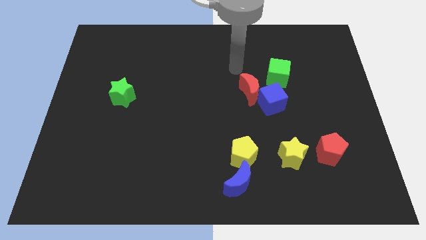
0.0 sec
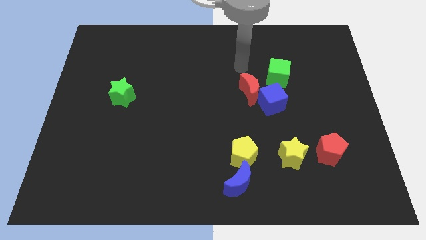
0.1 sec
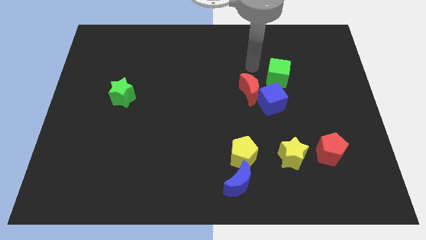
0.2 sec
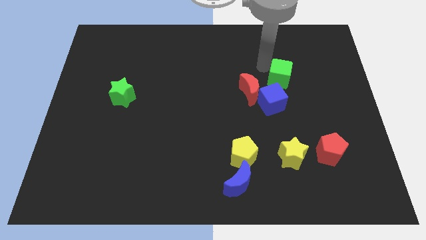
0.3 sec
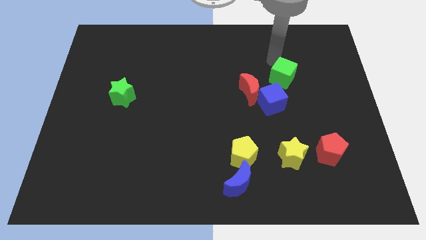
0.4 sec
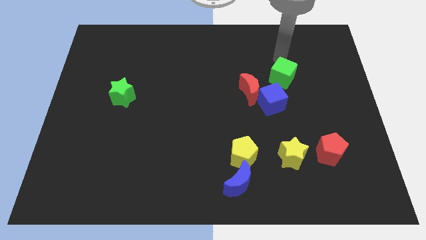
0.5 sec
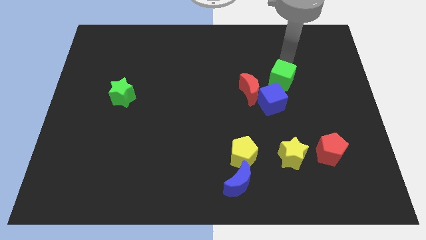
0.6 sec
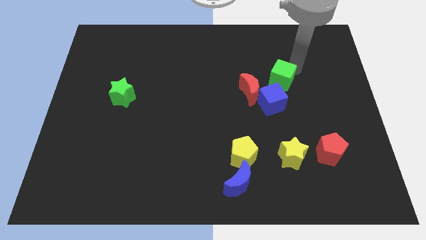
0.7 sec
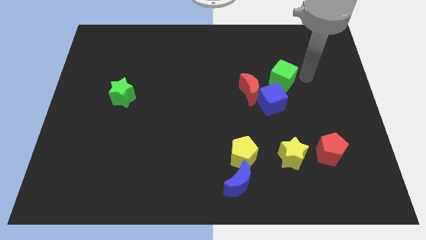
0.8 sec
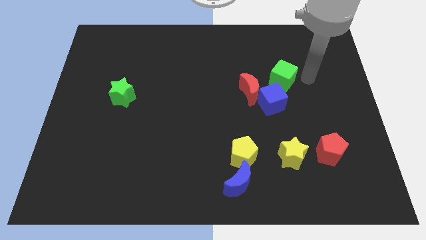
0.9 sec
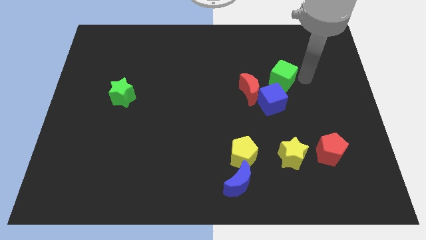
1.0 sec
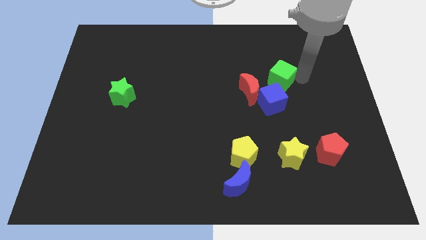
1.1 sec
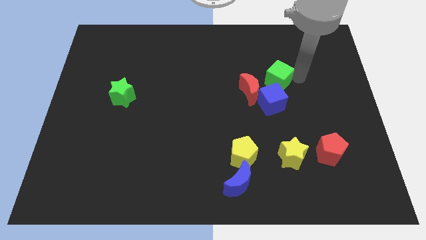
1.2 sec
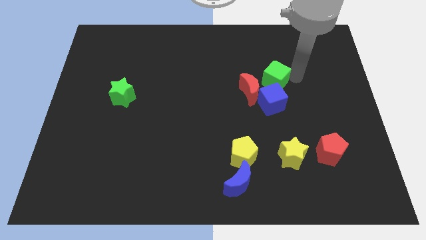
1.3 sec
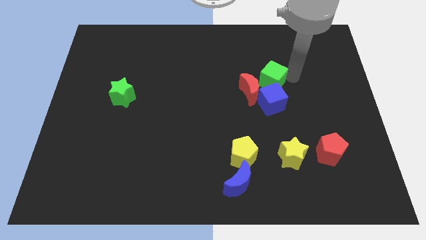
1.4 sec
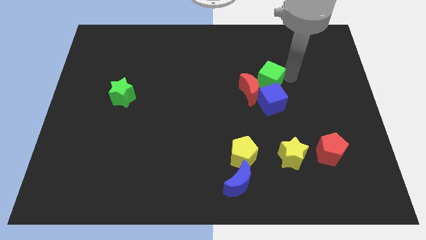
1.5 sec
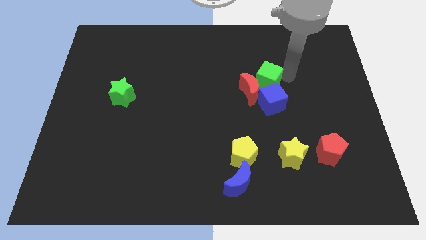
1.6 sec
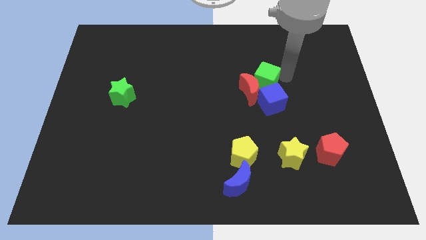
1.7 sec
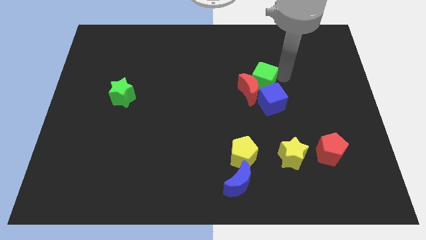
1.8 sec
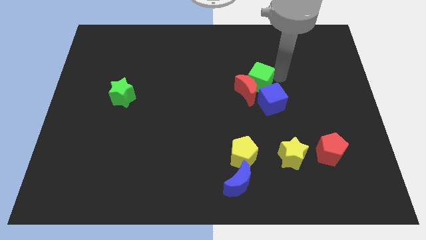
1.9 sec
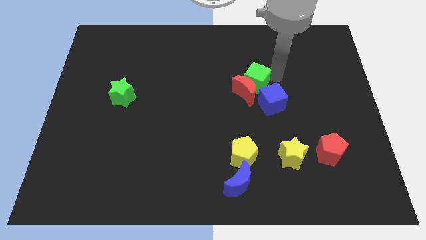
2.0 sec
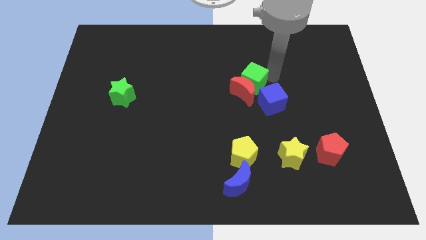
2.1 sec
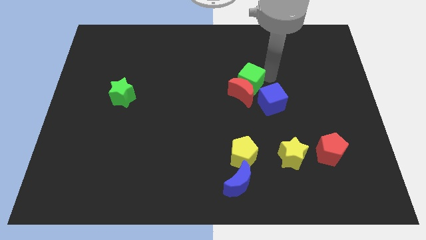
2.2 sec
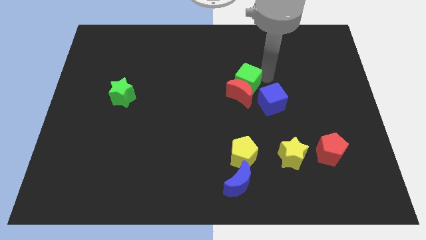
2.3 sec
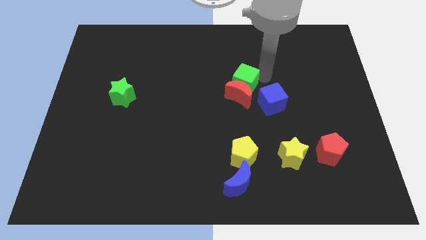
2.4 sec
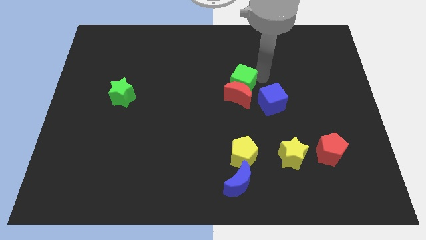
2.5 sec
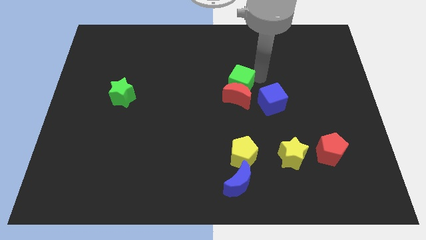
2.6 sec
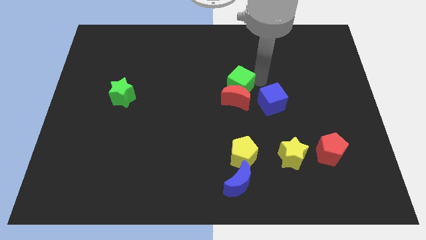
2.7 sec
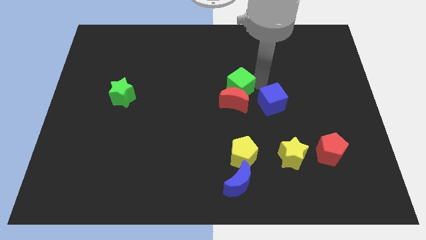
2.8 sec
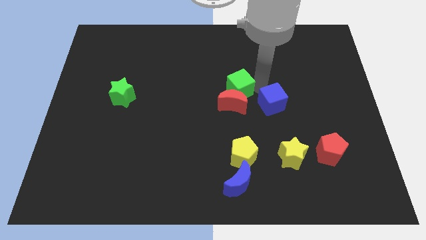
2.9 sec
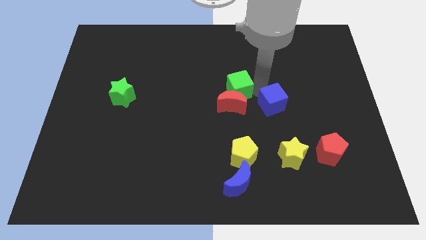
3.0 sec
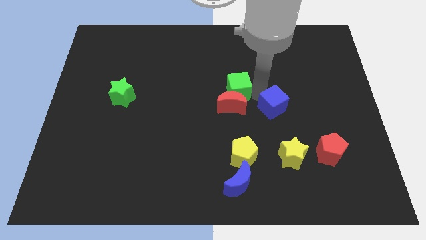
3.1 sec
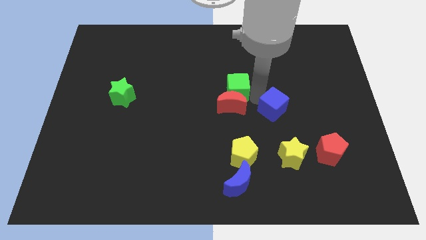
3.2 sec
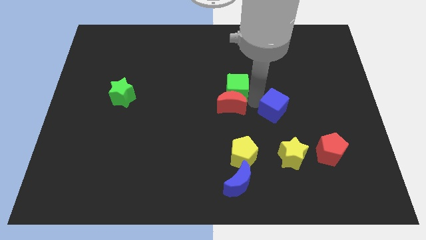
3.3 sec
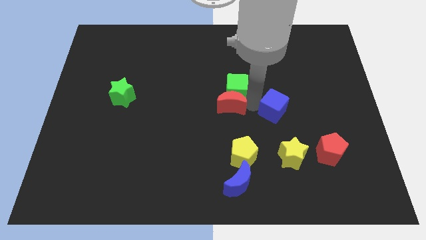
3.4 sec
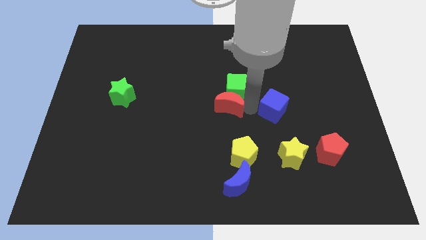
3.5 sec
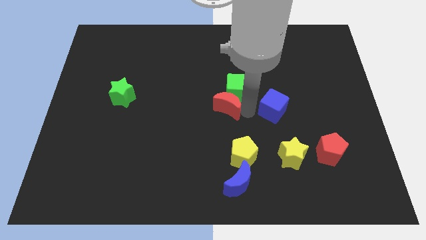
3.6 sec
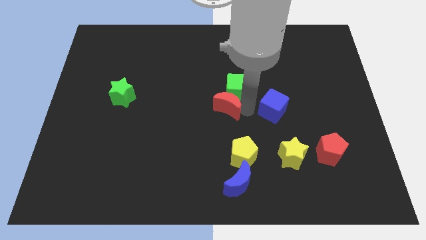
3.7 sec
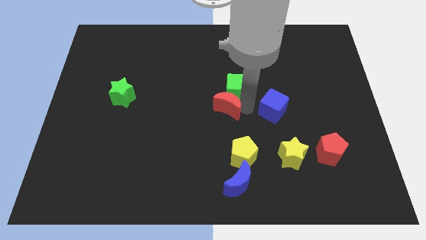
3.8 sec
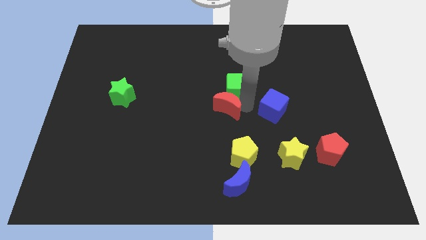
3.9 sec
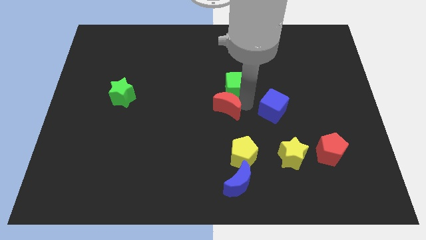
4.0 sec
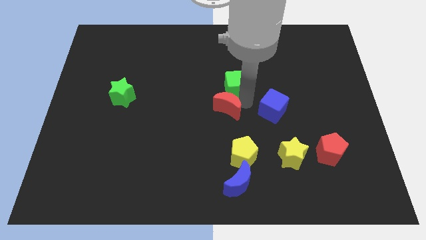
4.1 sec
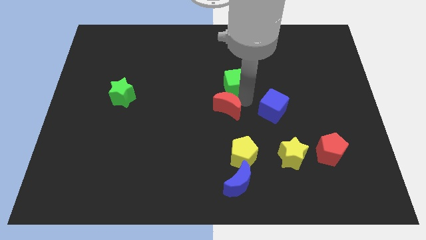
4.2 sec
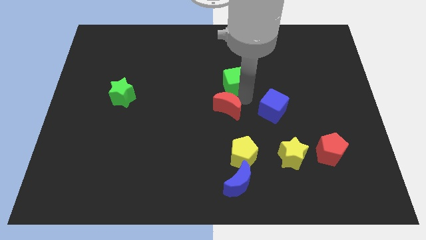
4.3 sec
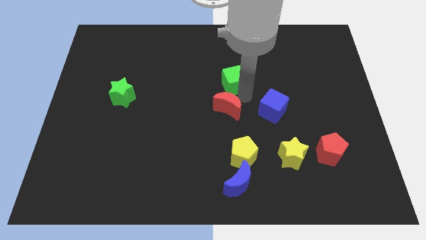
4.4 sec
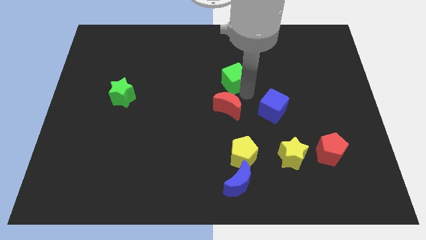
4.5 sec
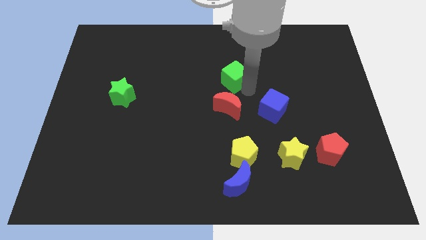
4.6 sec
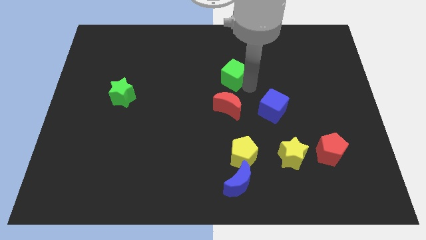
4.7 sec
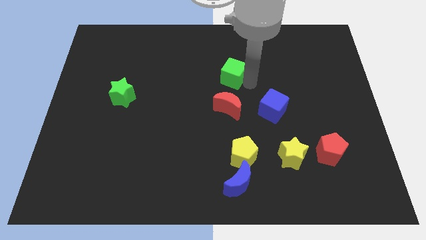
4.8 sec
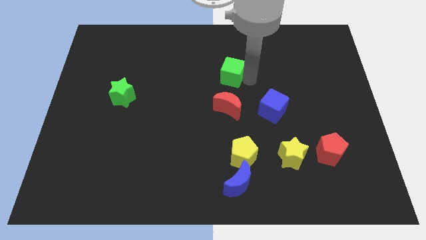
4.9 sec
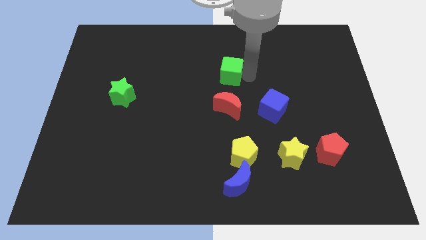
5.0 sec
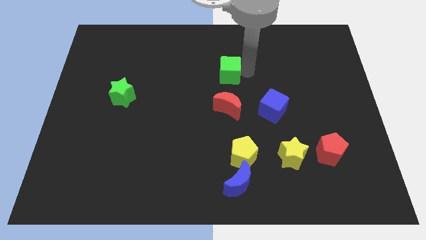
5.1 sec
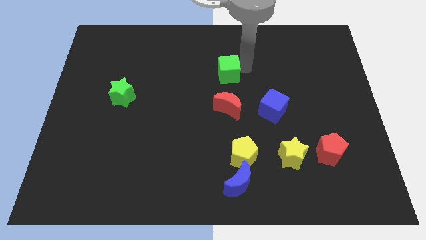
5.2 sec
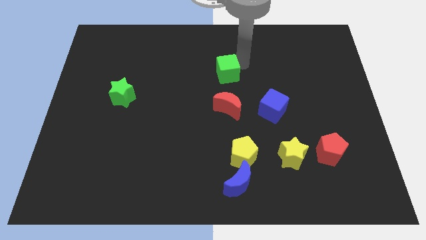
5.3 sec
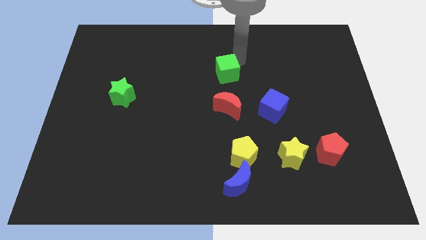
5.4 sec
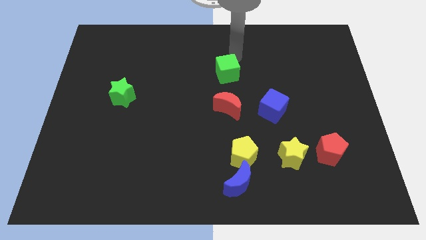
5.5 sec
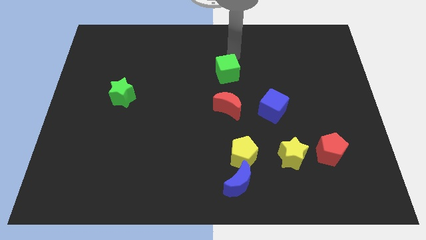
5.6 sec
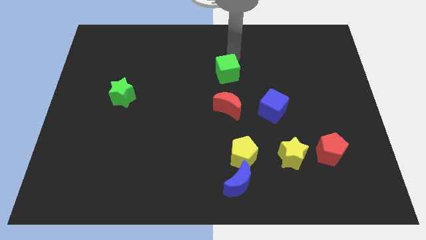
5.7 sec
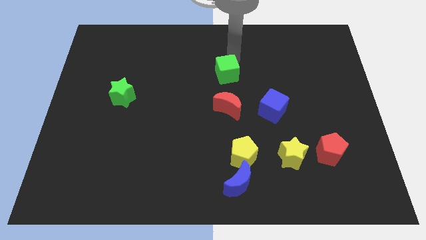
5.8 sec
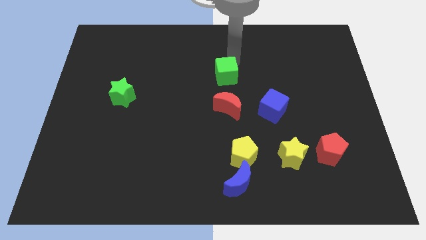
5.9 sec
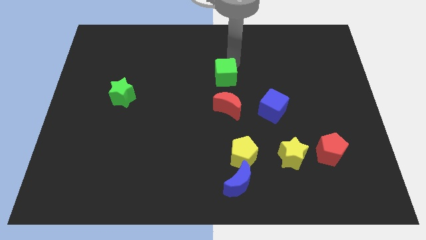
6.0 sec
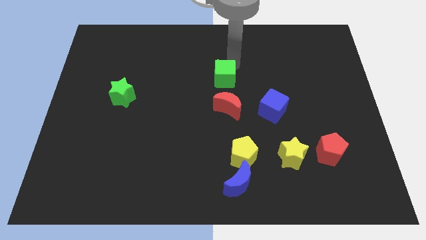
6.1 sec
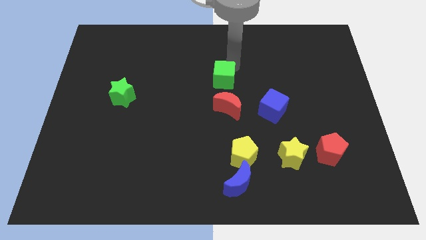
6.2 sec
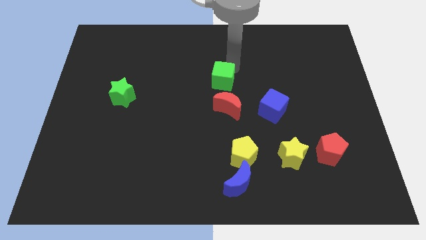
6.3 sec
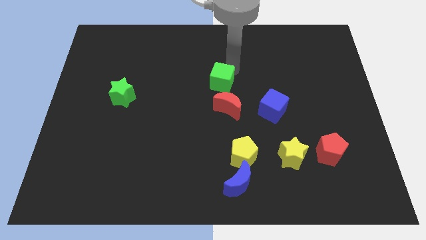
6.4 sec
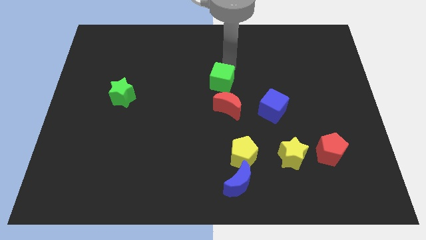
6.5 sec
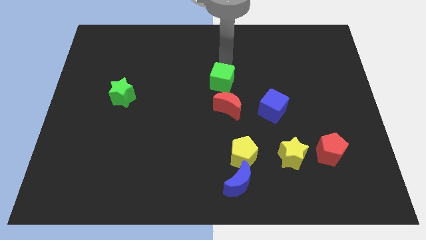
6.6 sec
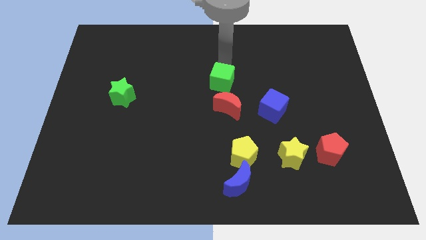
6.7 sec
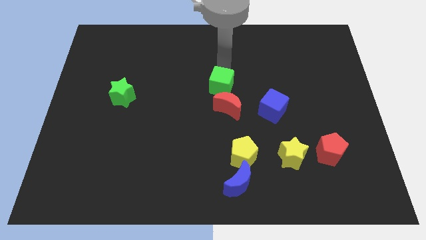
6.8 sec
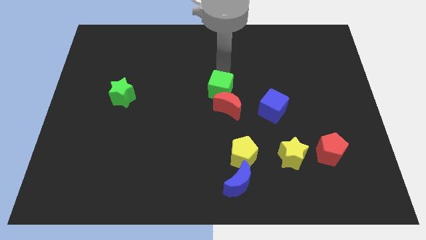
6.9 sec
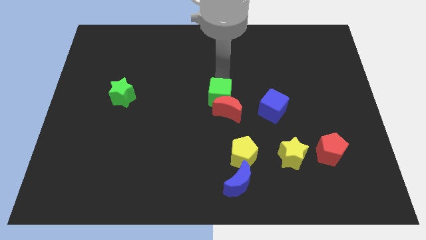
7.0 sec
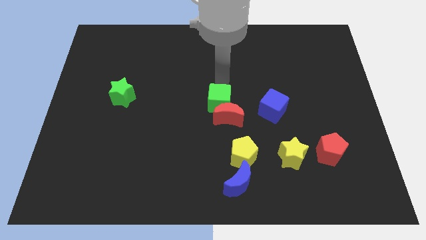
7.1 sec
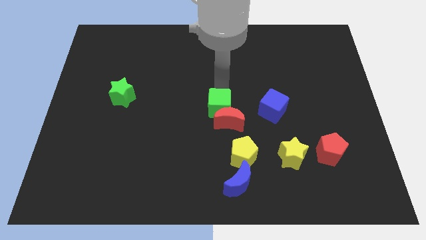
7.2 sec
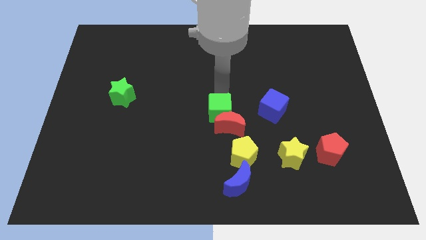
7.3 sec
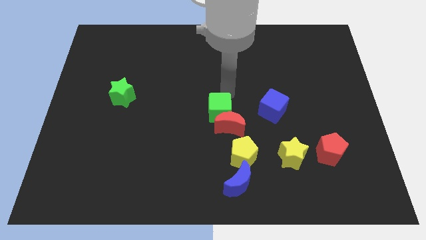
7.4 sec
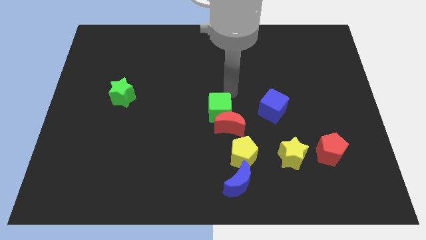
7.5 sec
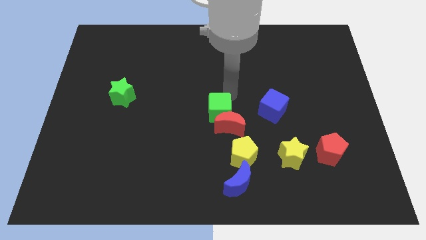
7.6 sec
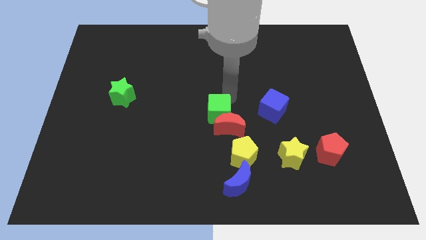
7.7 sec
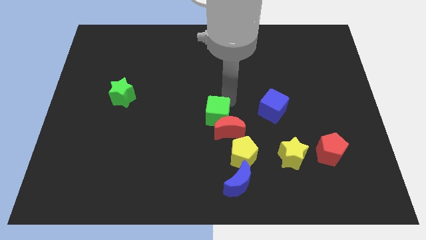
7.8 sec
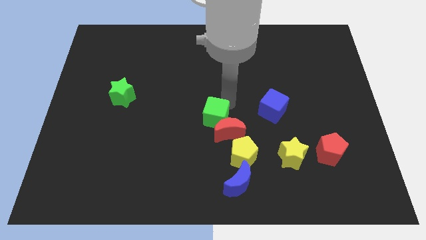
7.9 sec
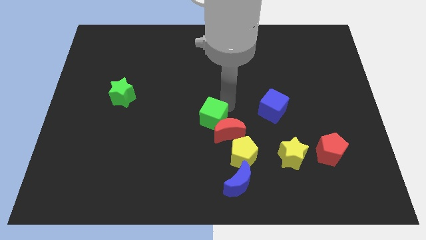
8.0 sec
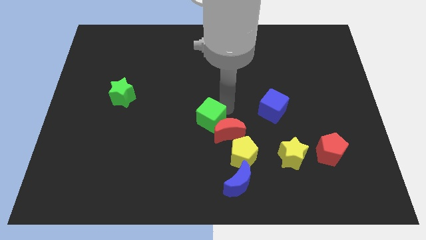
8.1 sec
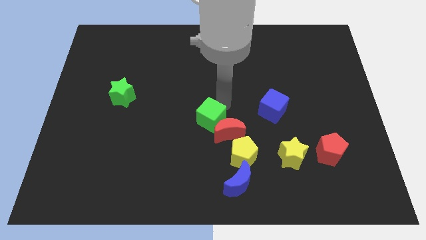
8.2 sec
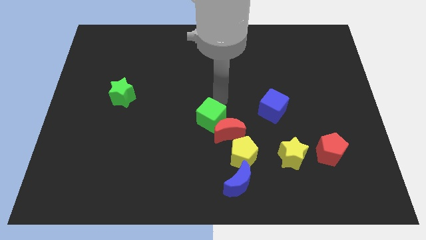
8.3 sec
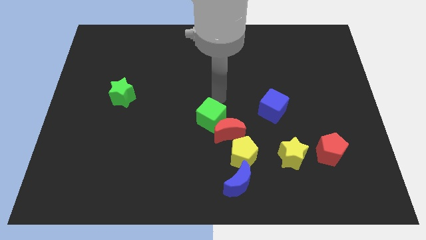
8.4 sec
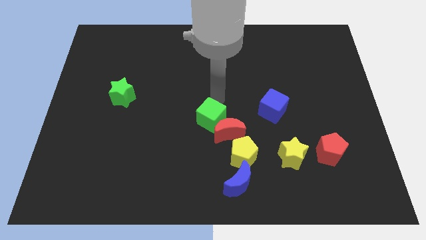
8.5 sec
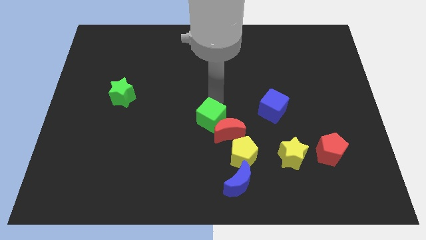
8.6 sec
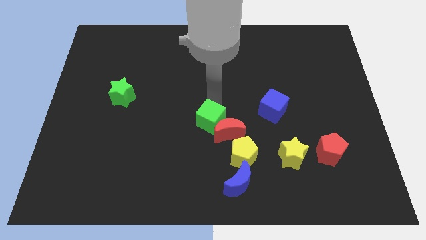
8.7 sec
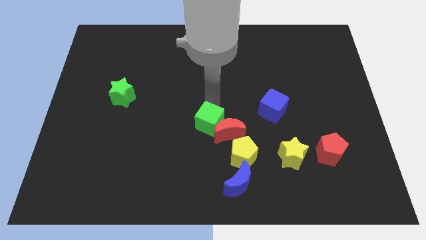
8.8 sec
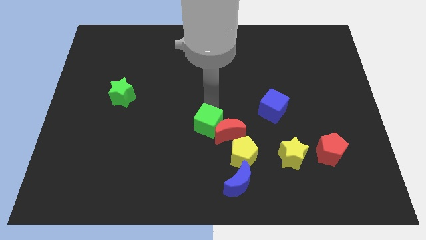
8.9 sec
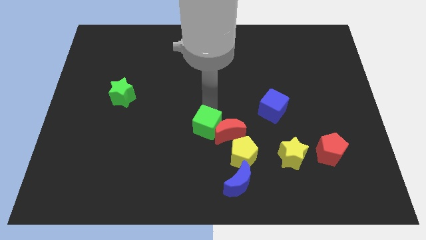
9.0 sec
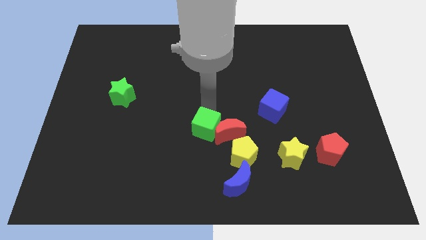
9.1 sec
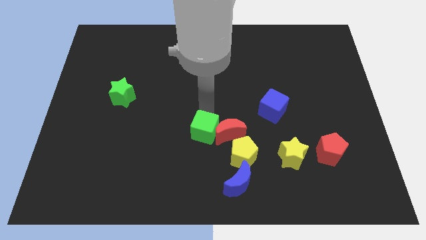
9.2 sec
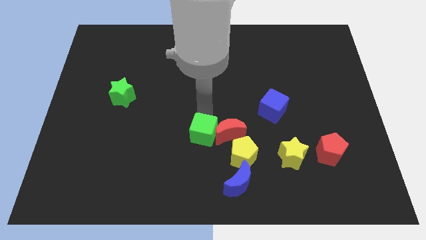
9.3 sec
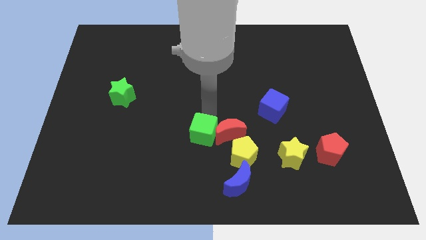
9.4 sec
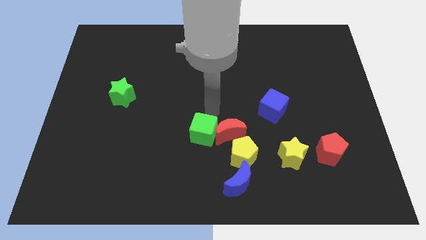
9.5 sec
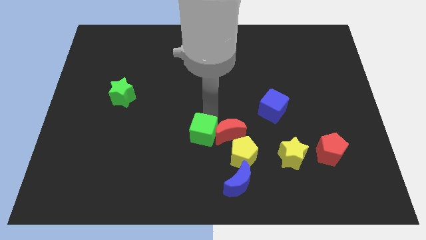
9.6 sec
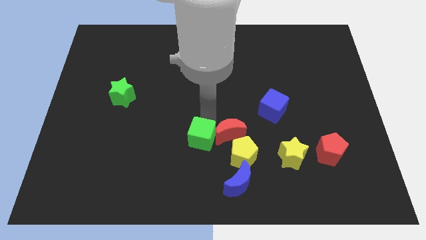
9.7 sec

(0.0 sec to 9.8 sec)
slide the green cube to the left side of the yellow pentagon
